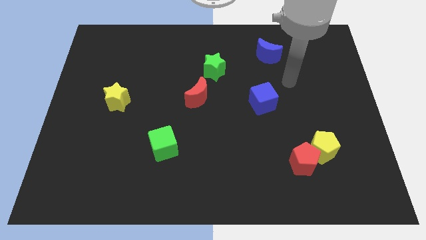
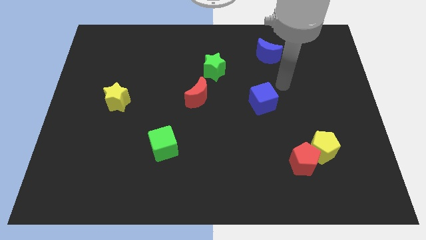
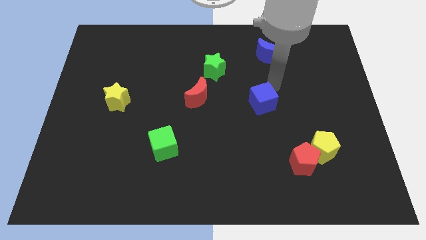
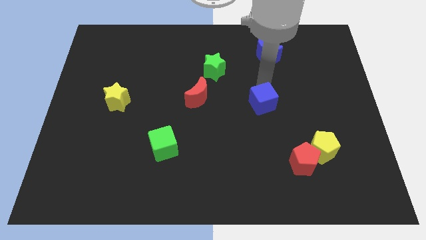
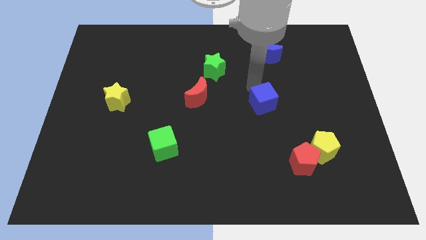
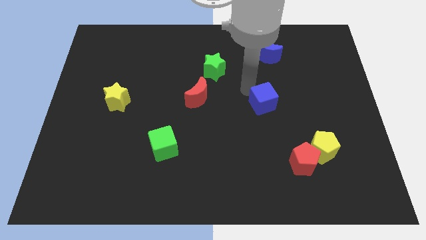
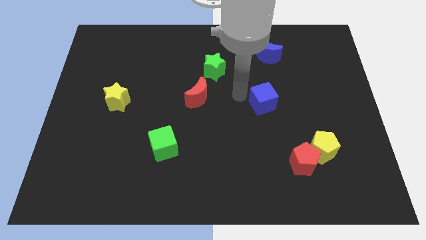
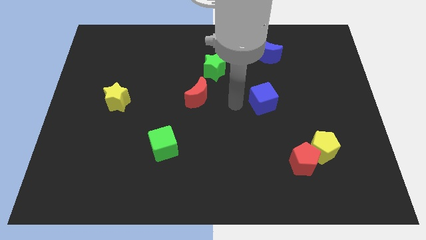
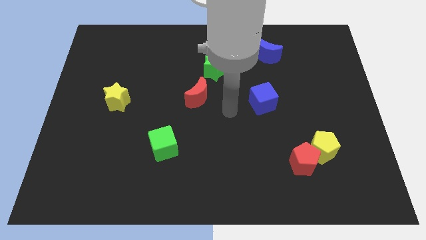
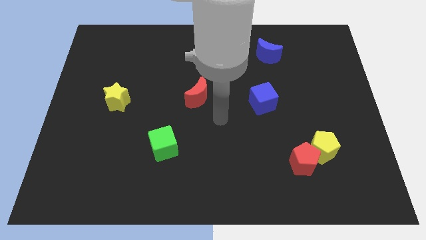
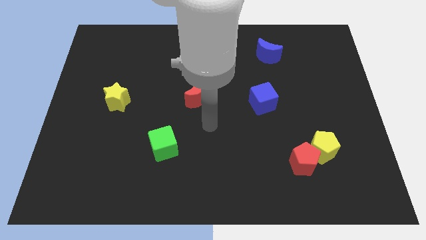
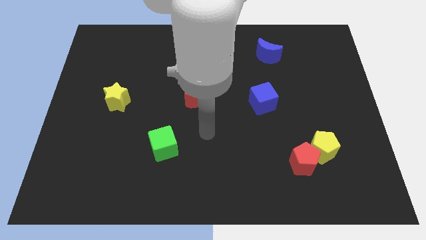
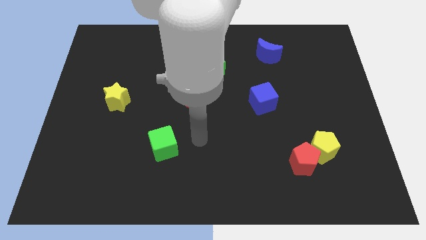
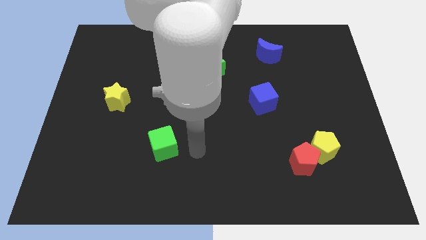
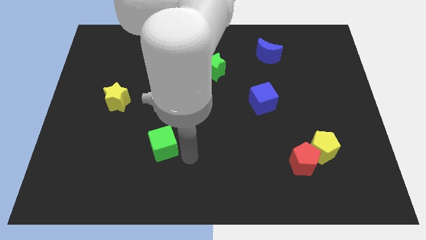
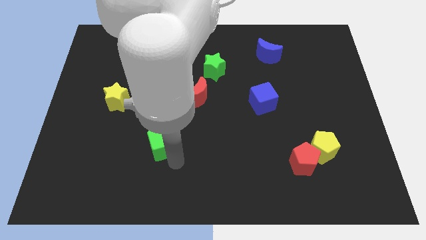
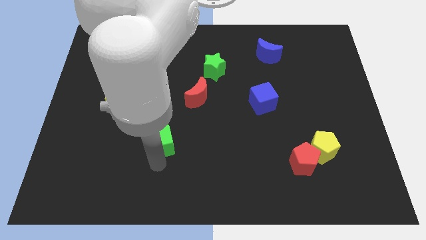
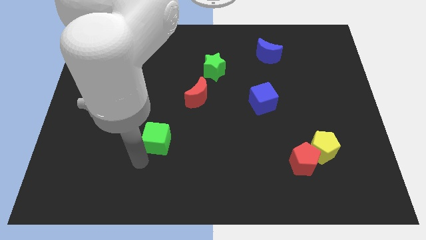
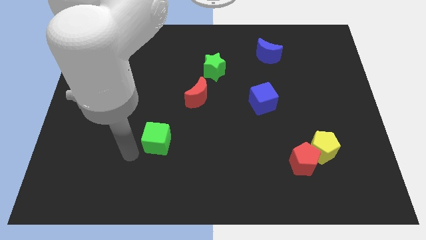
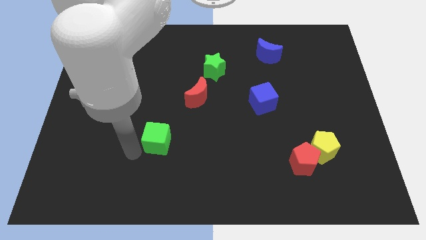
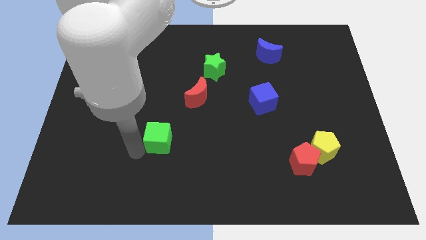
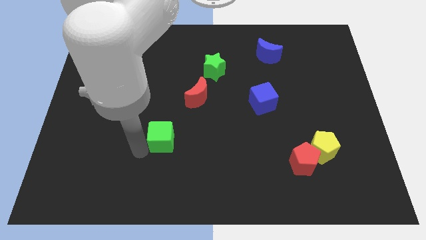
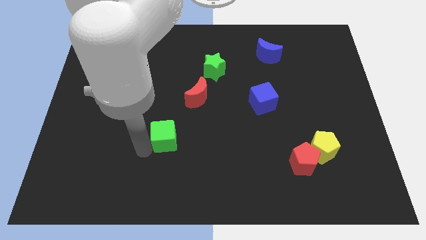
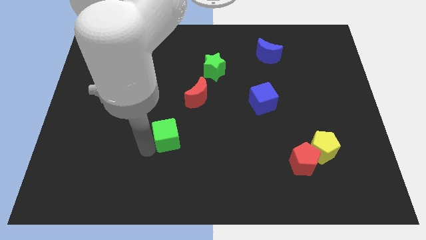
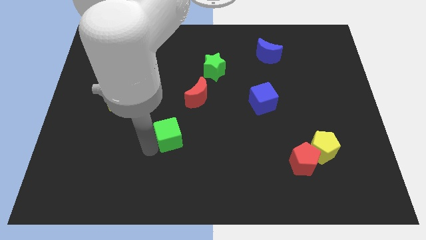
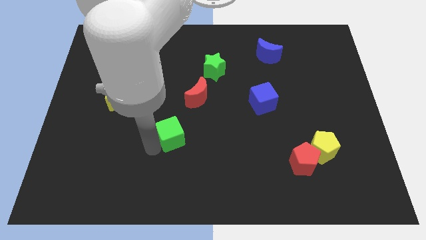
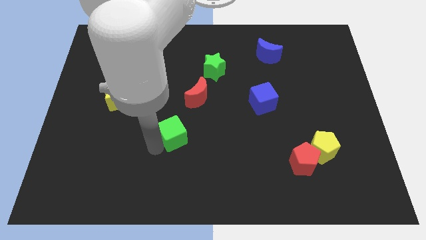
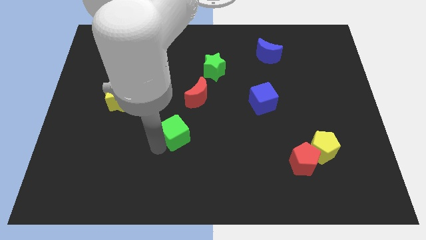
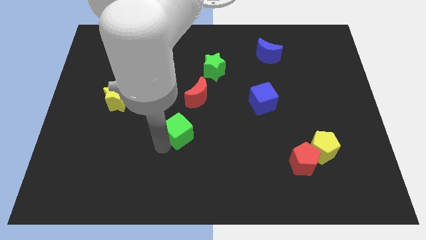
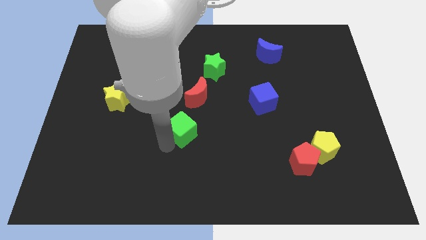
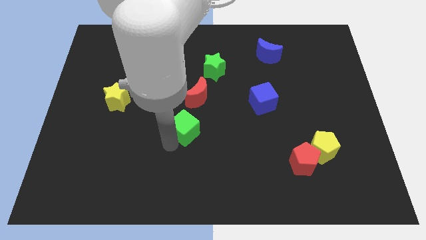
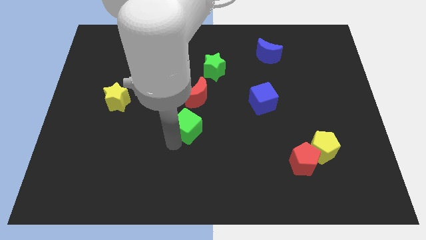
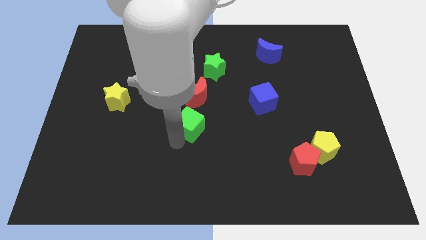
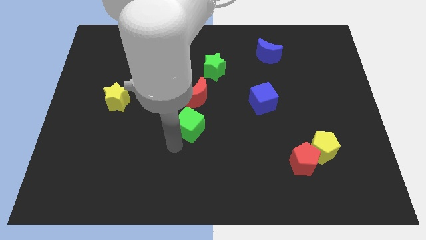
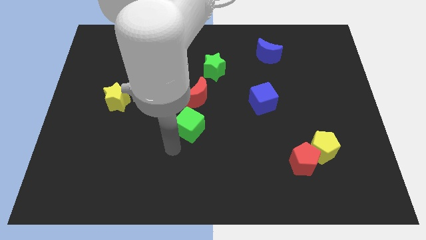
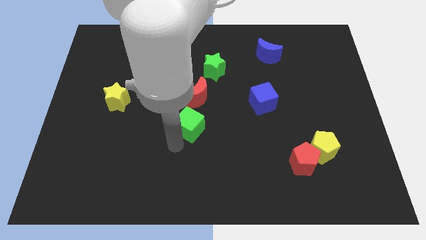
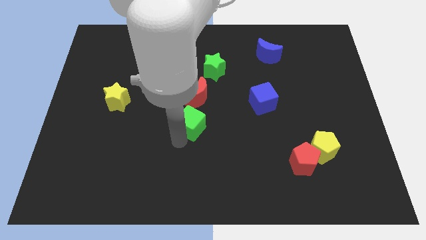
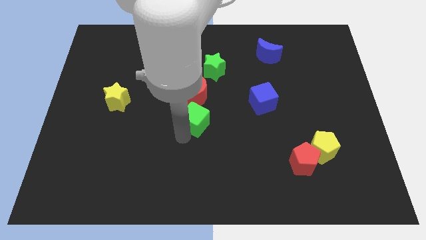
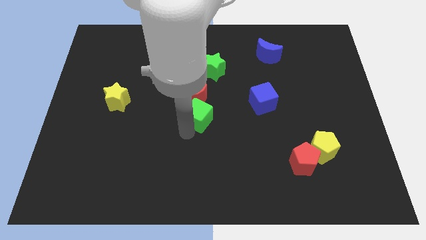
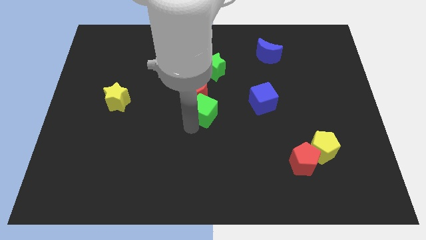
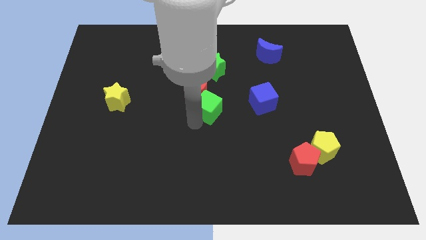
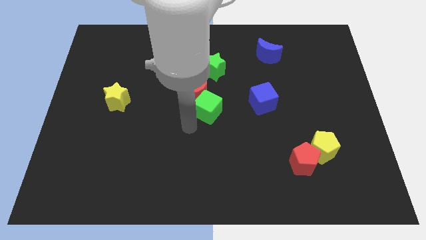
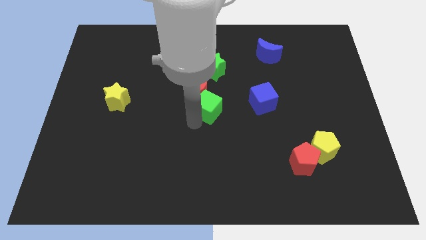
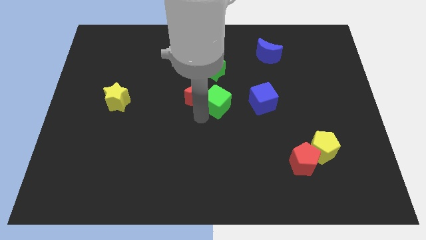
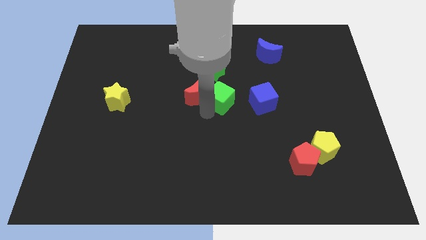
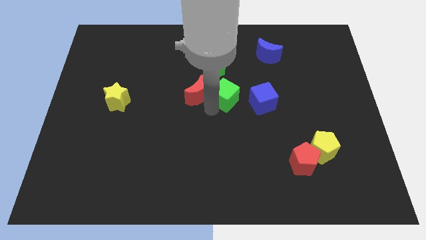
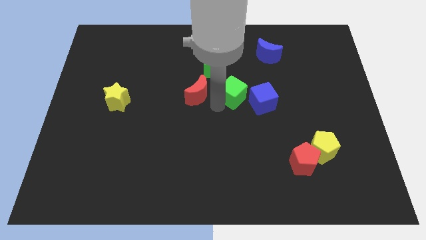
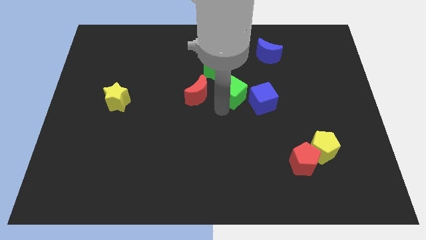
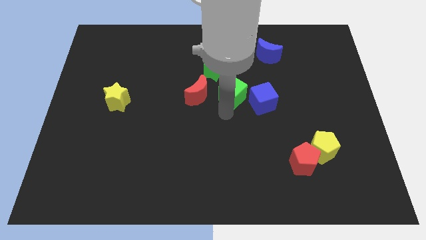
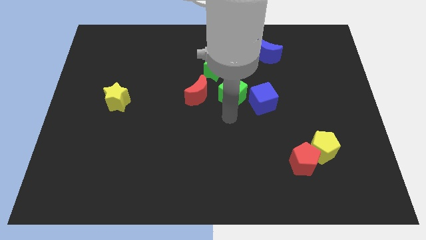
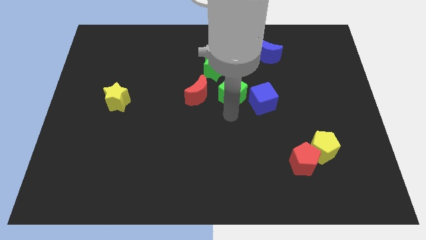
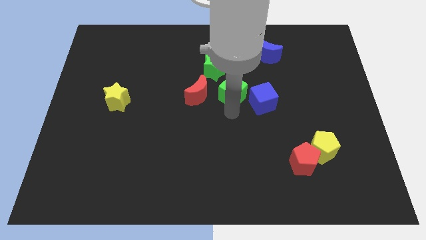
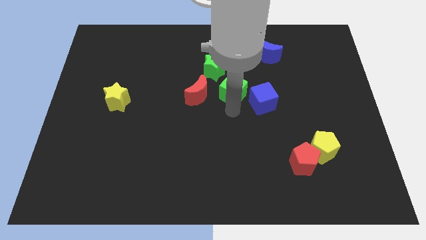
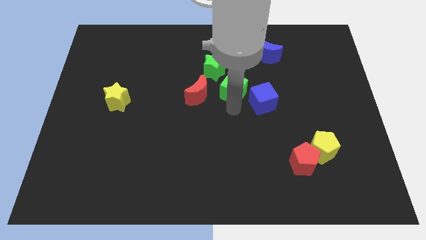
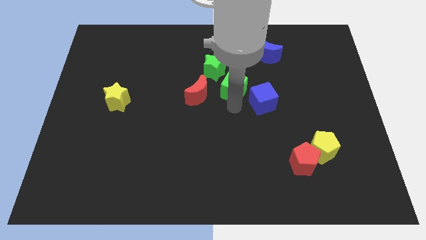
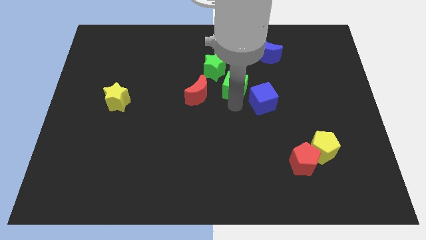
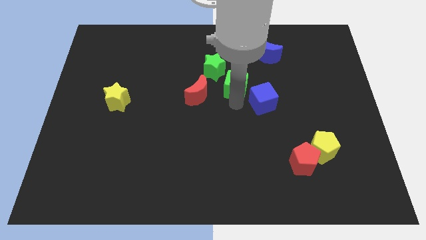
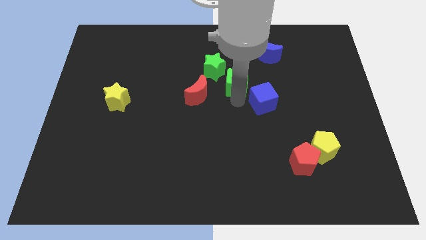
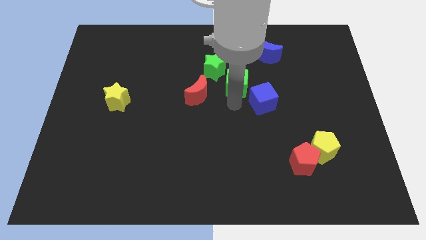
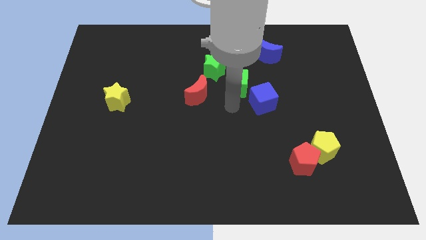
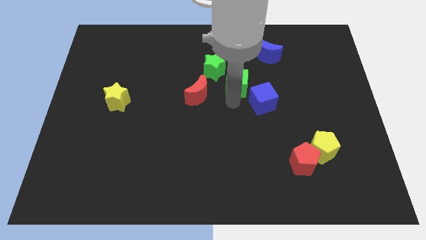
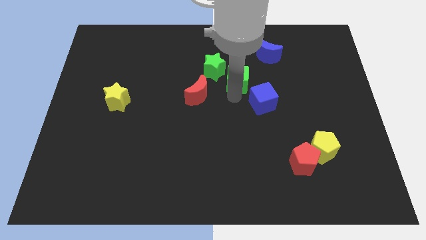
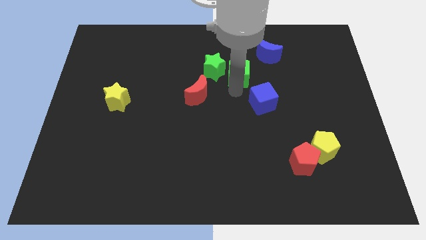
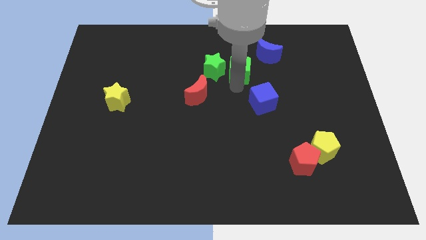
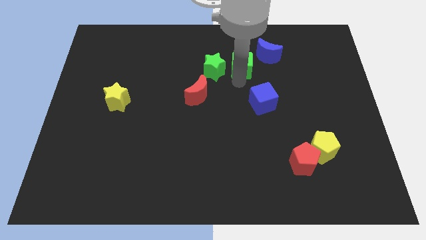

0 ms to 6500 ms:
slide the green cube diagonally up and to the right of the green star

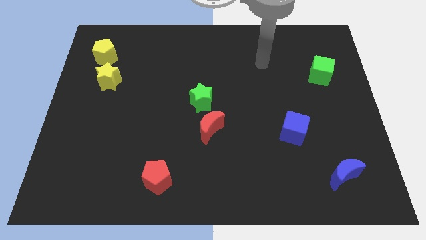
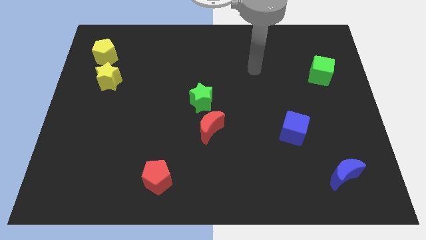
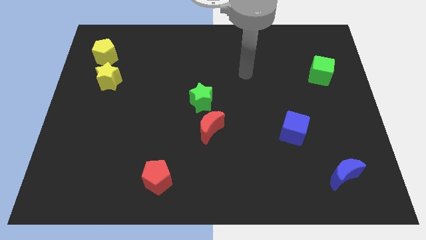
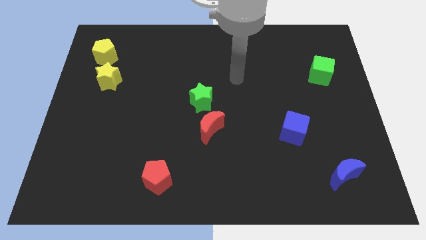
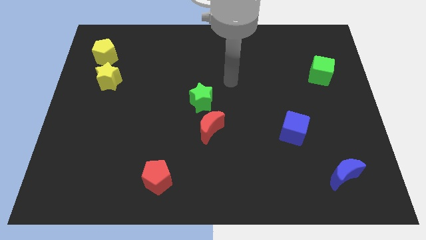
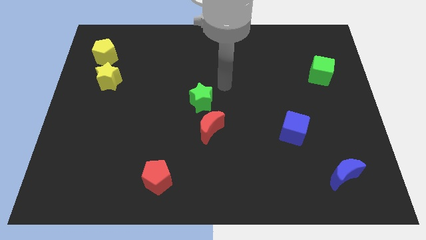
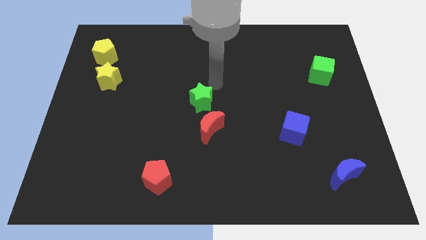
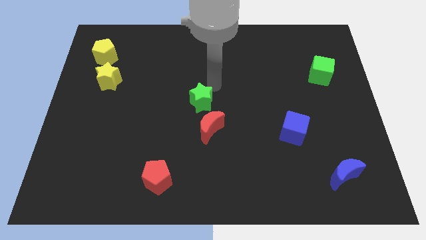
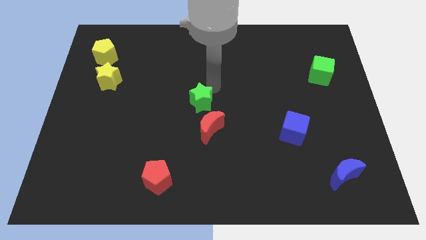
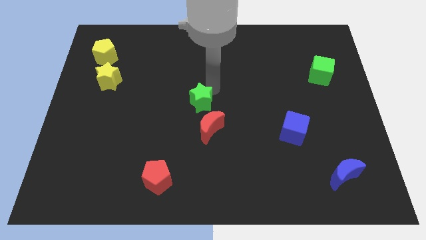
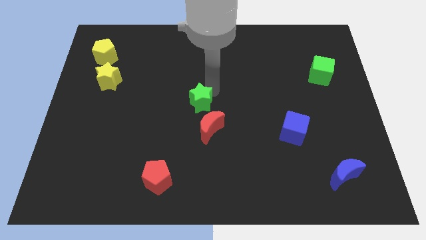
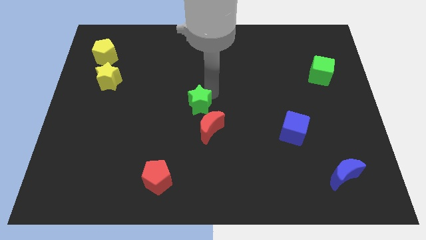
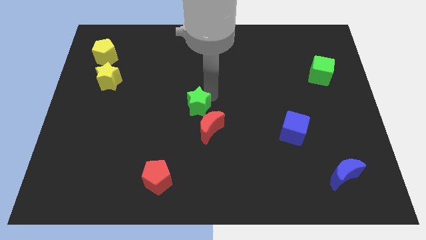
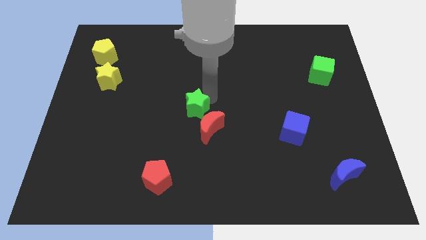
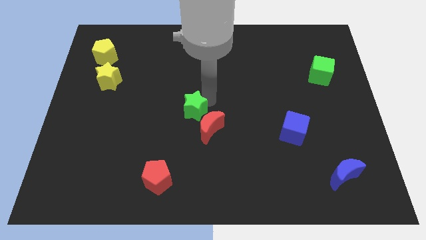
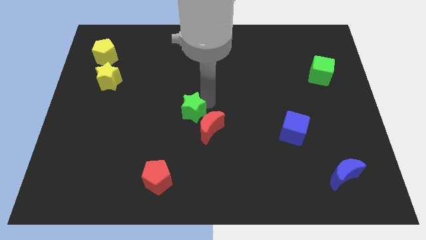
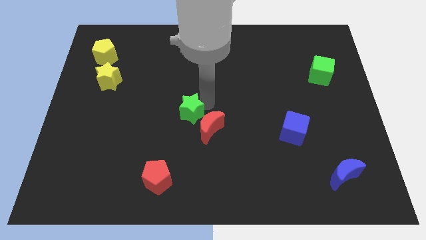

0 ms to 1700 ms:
push the green star left of the red moon
